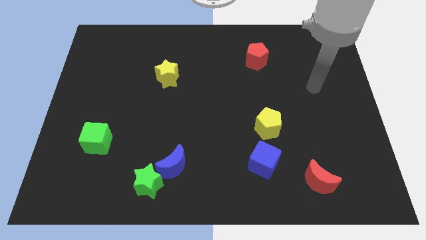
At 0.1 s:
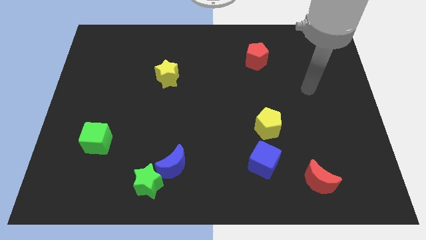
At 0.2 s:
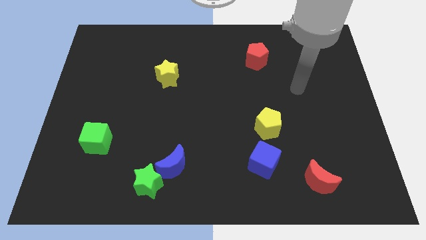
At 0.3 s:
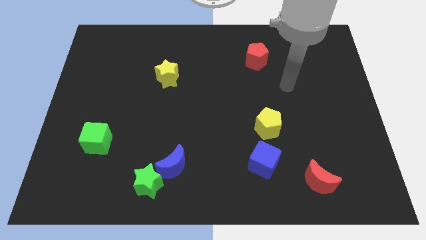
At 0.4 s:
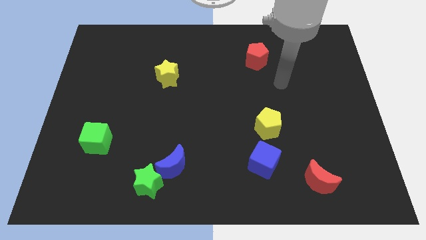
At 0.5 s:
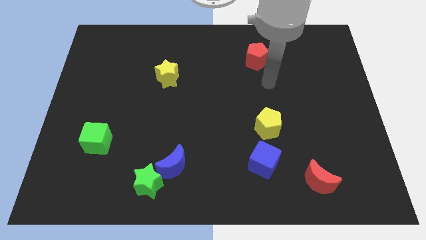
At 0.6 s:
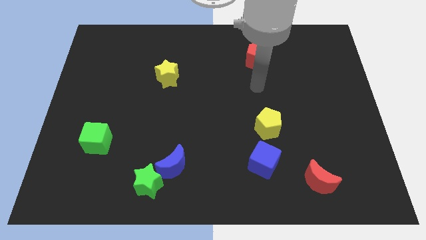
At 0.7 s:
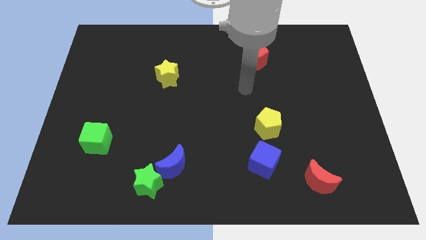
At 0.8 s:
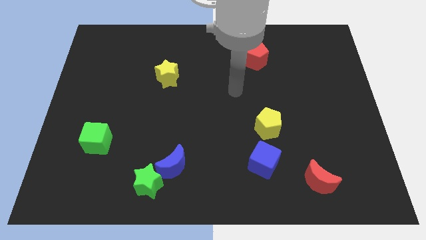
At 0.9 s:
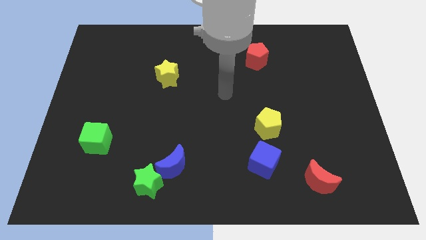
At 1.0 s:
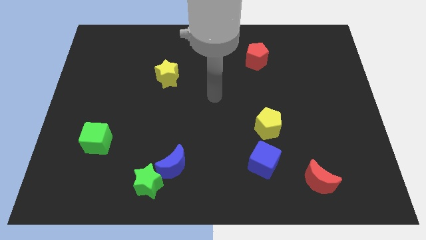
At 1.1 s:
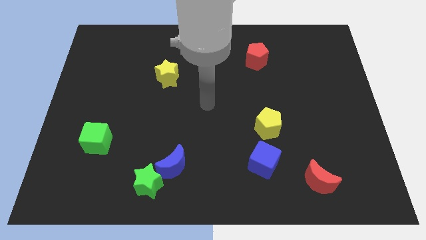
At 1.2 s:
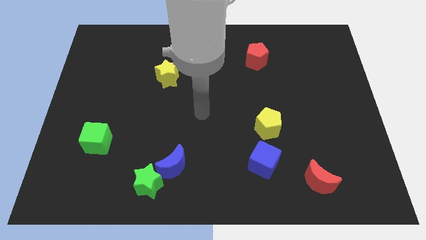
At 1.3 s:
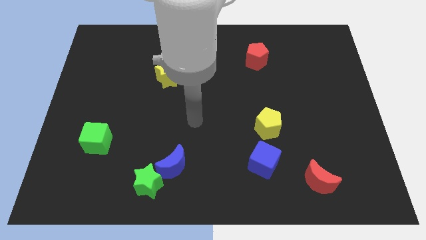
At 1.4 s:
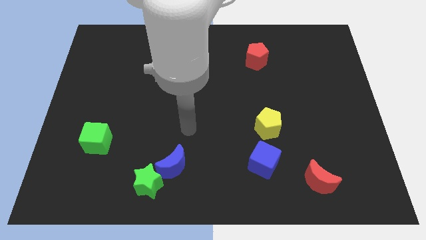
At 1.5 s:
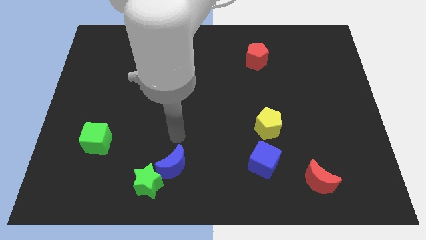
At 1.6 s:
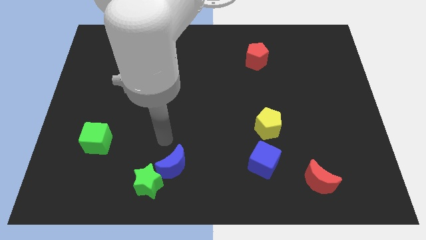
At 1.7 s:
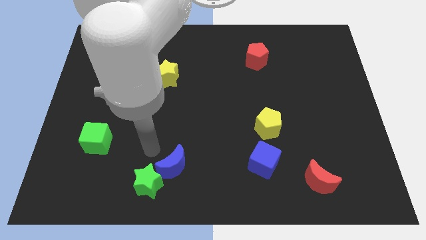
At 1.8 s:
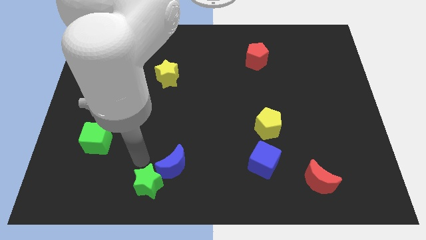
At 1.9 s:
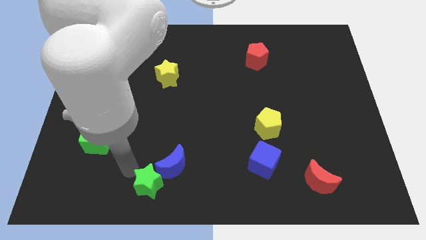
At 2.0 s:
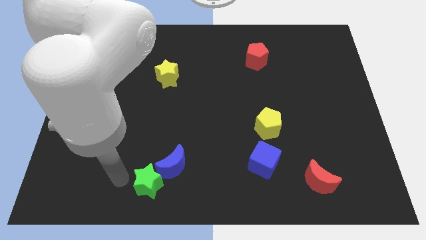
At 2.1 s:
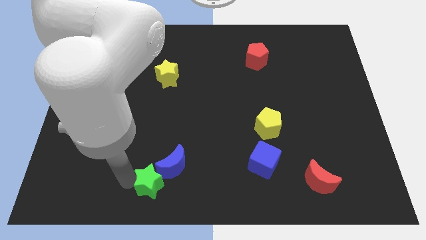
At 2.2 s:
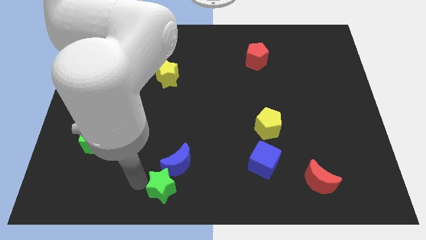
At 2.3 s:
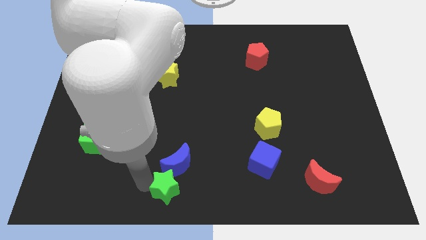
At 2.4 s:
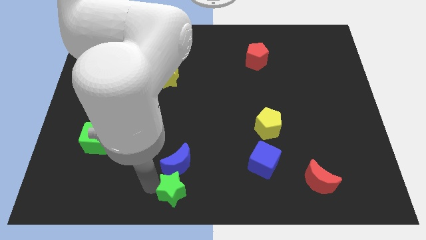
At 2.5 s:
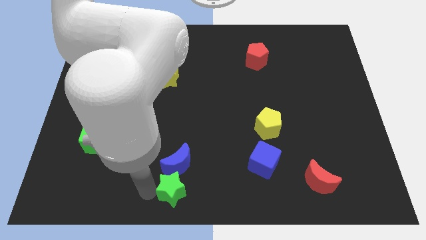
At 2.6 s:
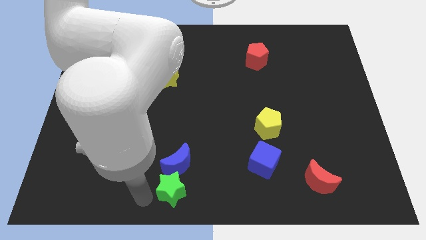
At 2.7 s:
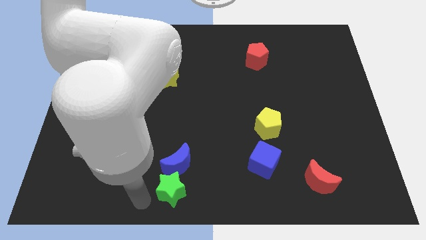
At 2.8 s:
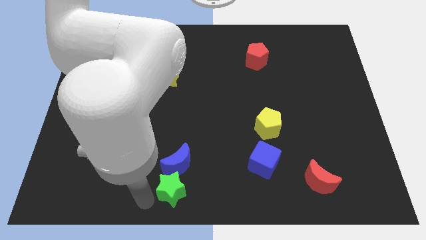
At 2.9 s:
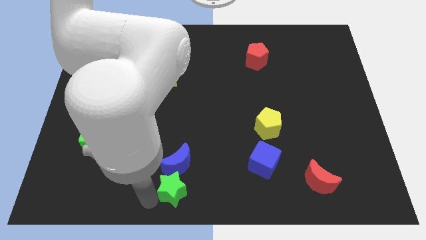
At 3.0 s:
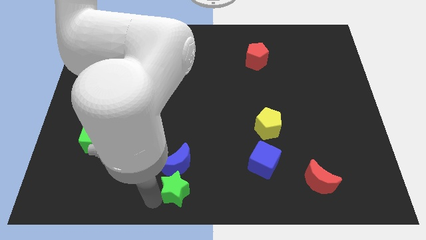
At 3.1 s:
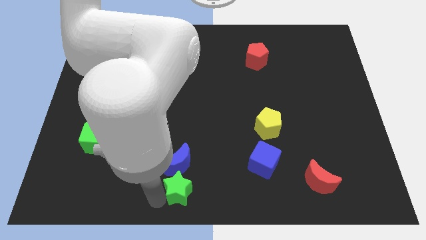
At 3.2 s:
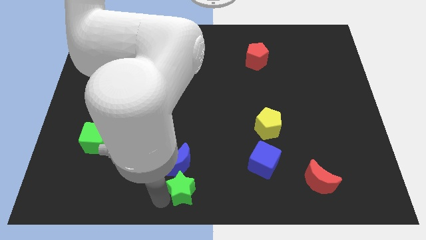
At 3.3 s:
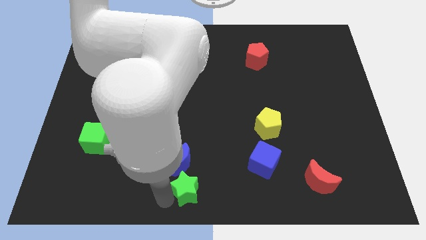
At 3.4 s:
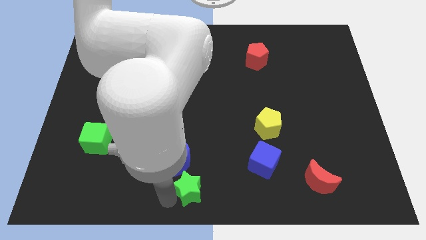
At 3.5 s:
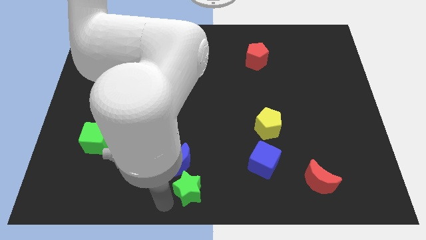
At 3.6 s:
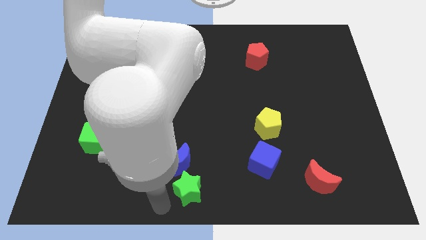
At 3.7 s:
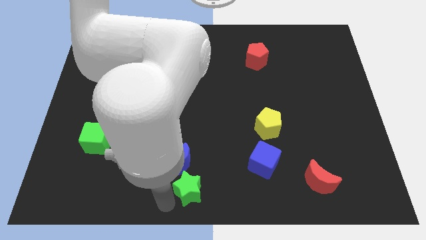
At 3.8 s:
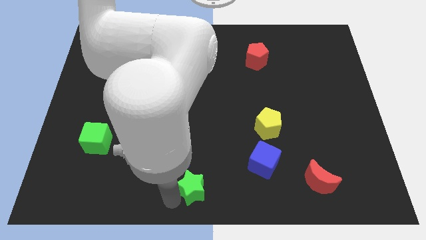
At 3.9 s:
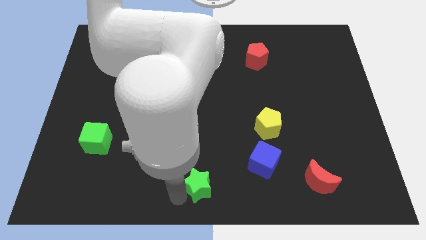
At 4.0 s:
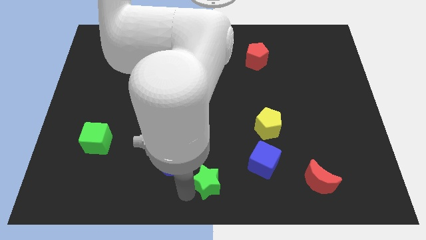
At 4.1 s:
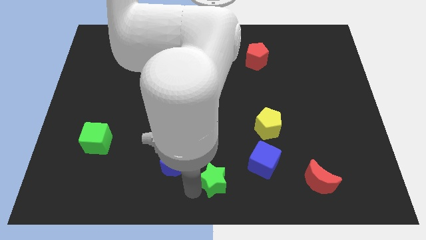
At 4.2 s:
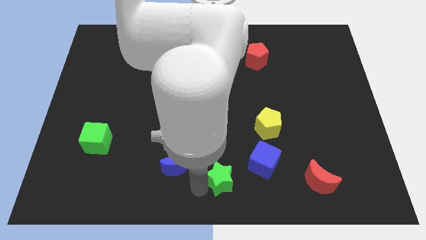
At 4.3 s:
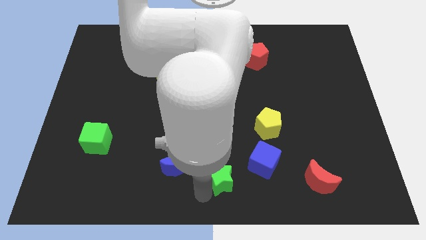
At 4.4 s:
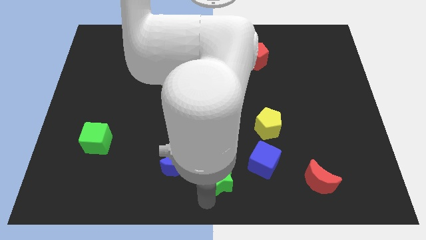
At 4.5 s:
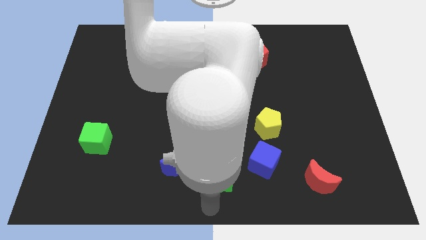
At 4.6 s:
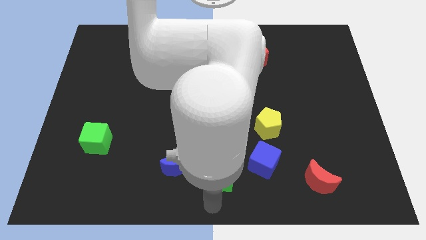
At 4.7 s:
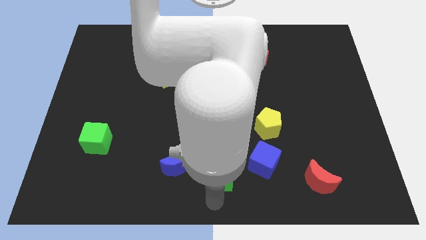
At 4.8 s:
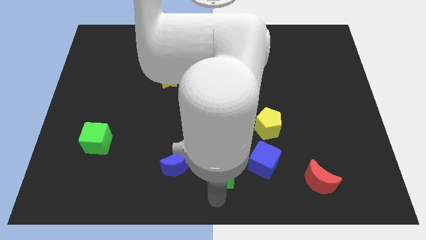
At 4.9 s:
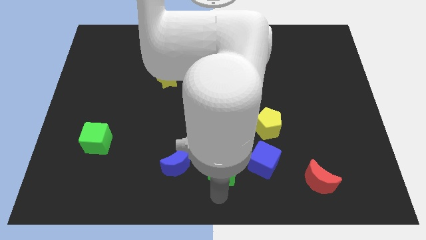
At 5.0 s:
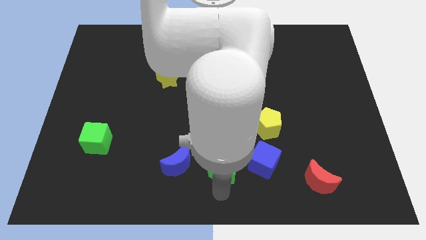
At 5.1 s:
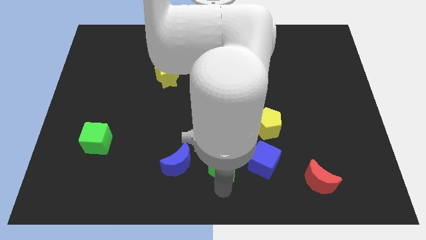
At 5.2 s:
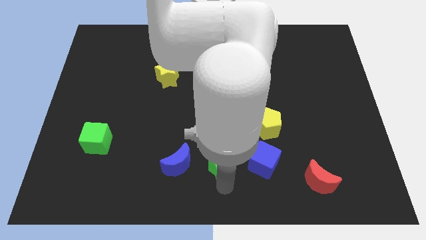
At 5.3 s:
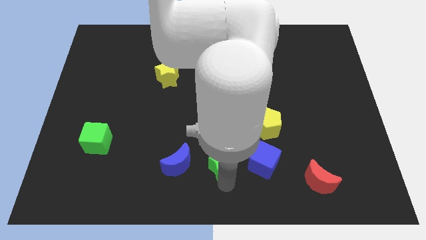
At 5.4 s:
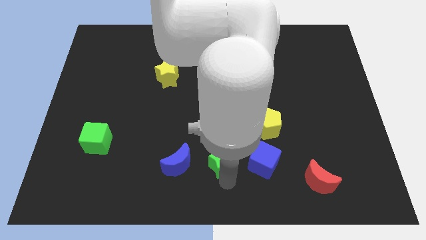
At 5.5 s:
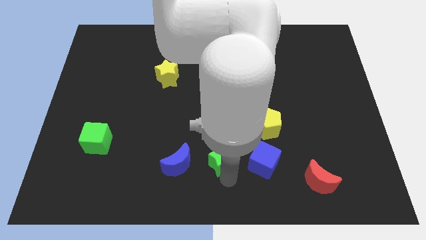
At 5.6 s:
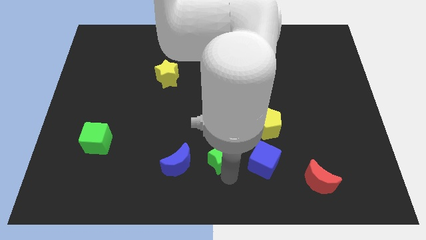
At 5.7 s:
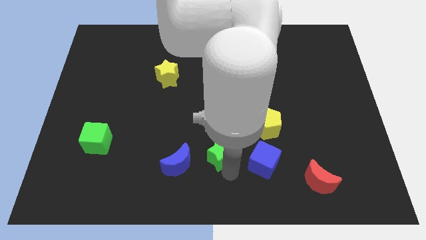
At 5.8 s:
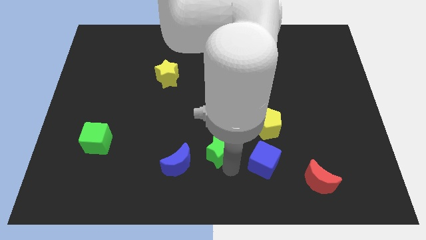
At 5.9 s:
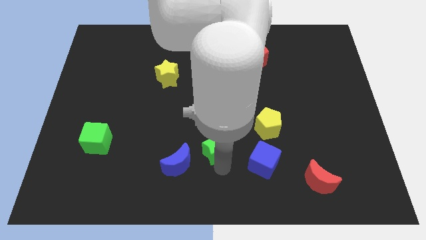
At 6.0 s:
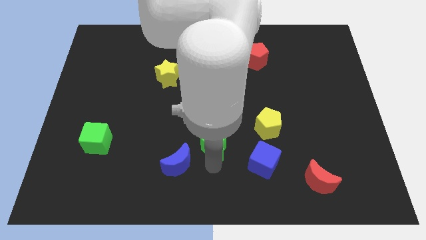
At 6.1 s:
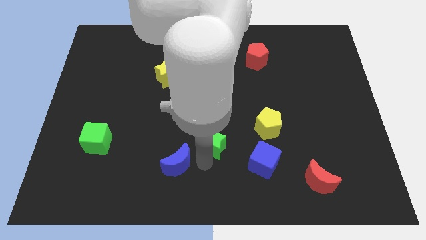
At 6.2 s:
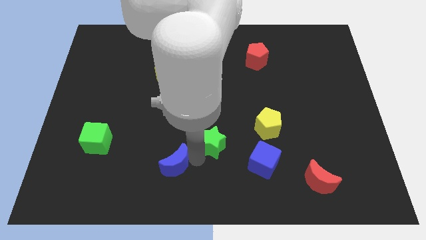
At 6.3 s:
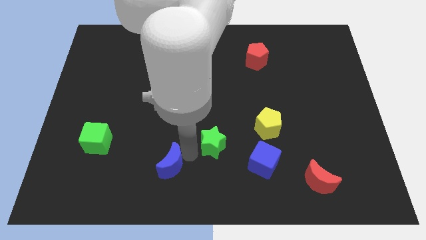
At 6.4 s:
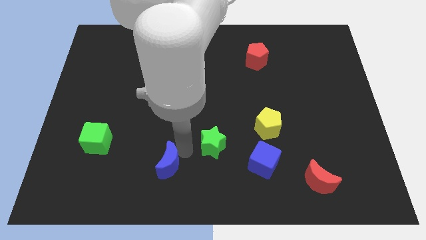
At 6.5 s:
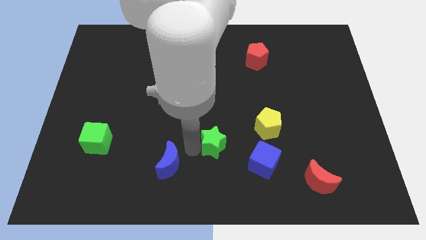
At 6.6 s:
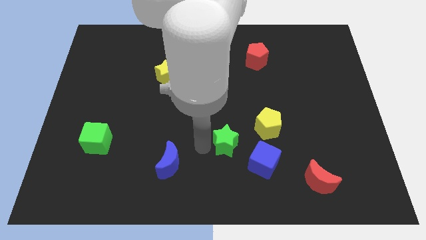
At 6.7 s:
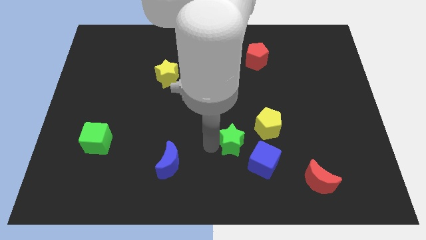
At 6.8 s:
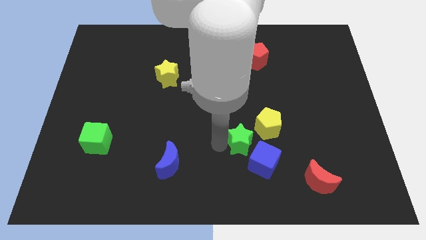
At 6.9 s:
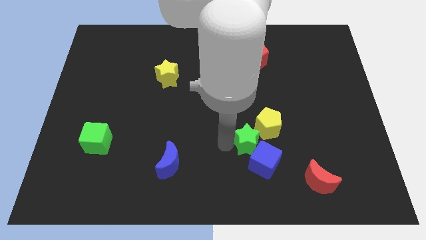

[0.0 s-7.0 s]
push the green star close to the yellow pentagon

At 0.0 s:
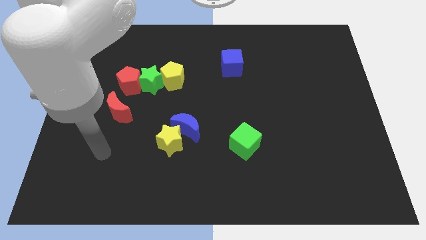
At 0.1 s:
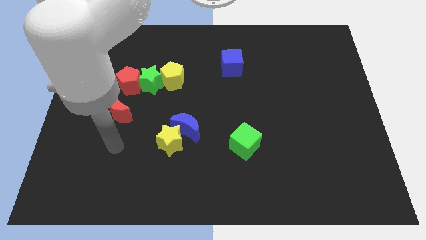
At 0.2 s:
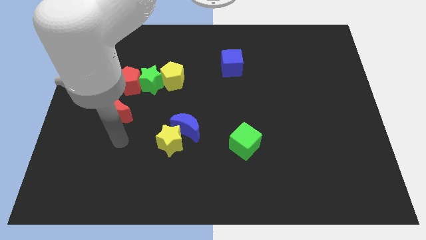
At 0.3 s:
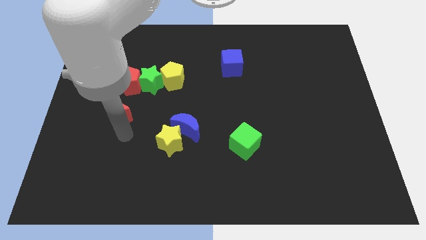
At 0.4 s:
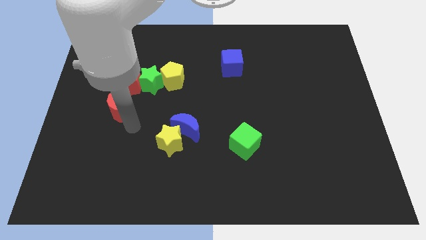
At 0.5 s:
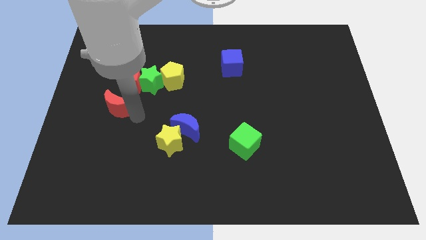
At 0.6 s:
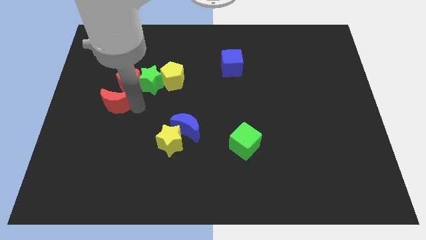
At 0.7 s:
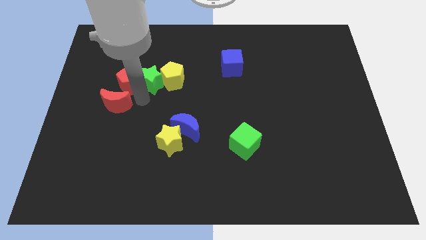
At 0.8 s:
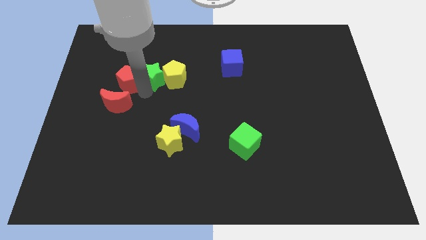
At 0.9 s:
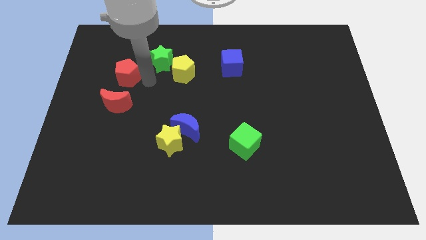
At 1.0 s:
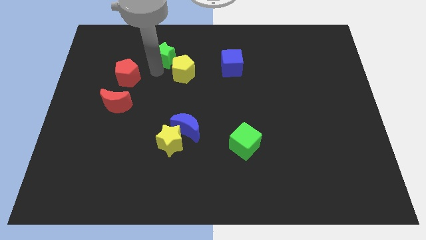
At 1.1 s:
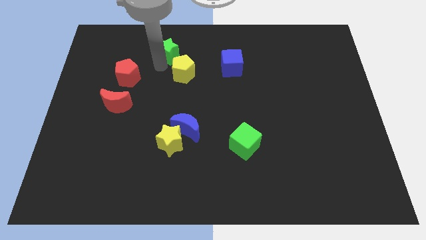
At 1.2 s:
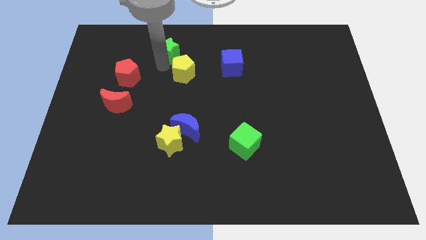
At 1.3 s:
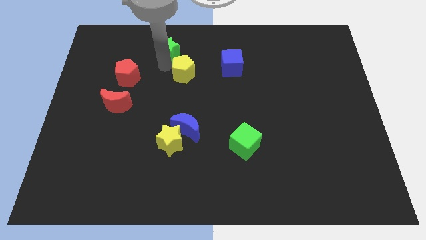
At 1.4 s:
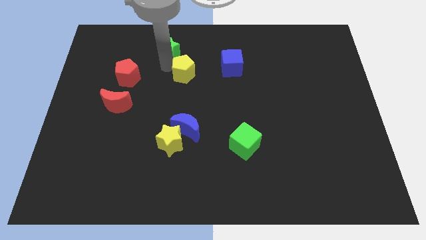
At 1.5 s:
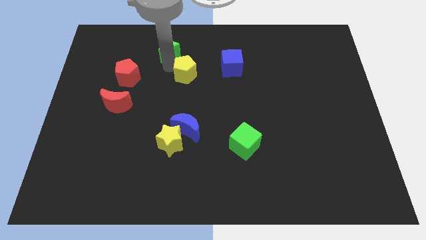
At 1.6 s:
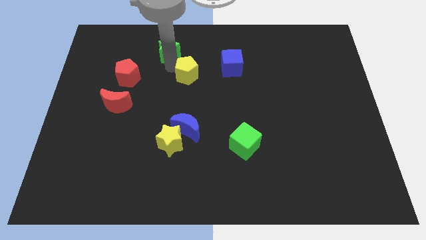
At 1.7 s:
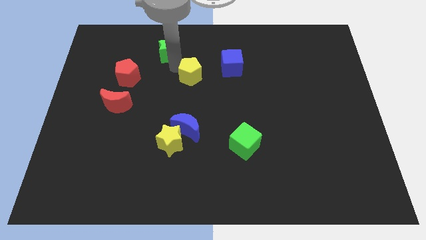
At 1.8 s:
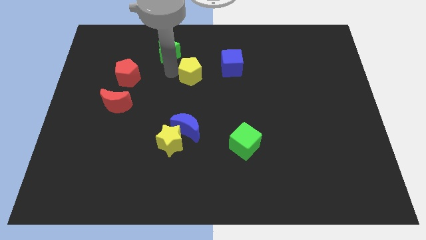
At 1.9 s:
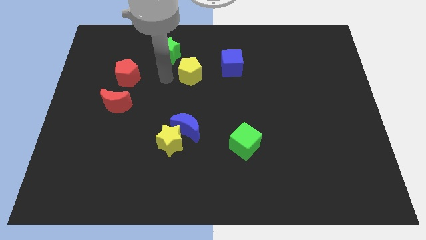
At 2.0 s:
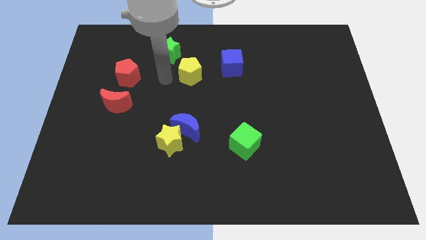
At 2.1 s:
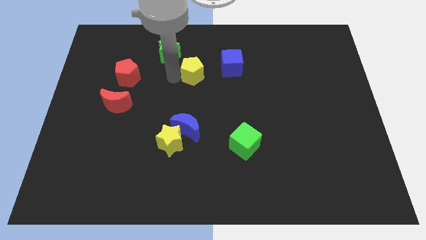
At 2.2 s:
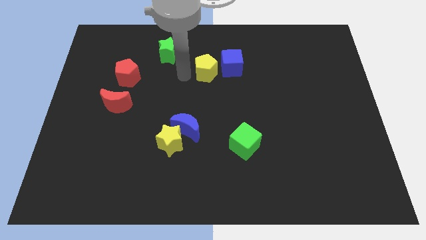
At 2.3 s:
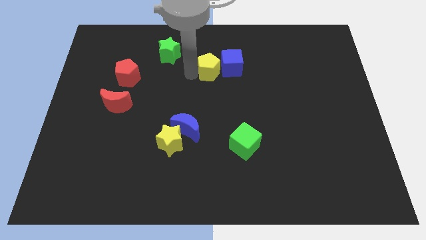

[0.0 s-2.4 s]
push the yellow pentagon towards the blue cube
